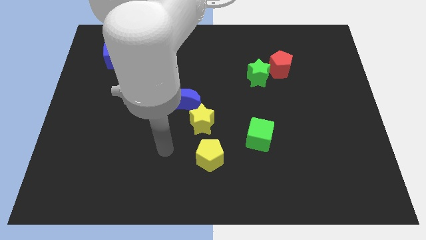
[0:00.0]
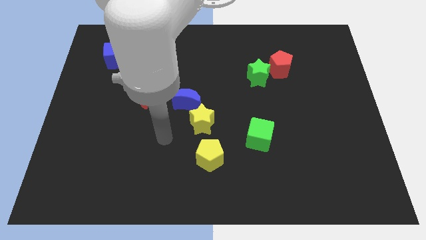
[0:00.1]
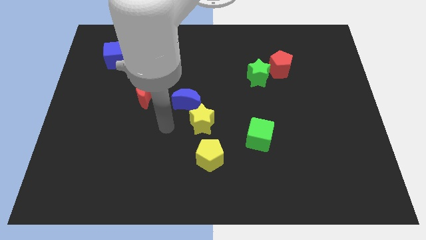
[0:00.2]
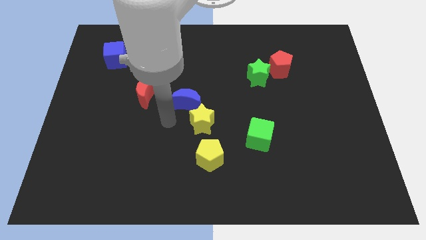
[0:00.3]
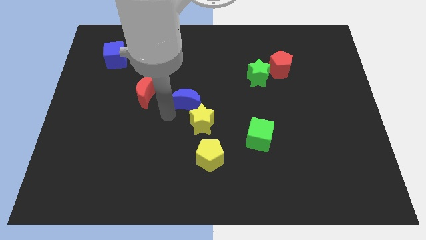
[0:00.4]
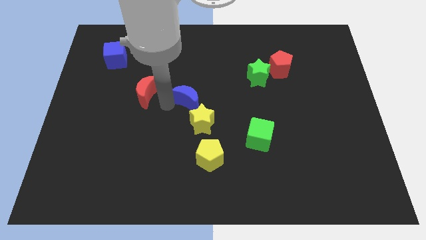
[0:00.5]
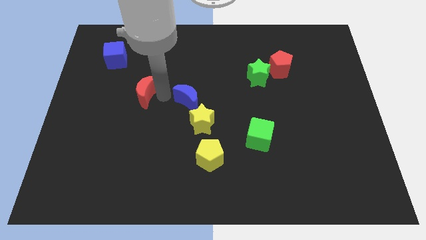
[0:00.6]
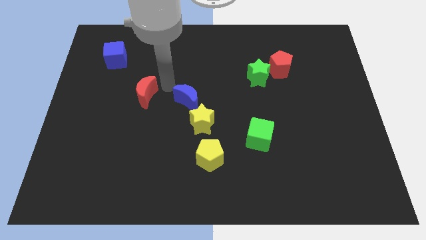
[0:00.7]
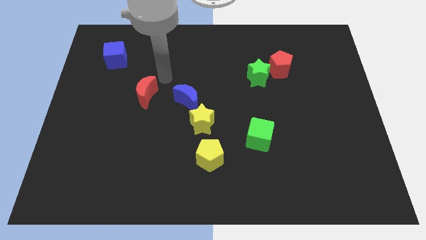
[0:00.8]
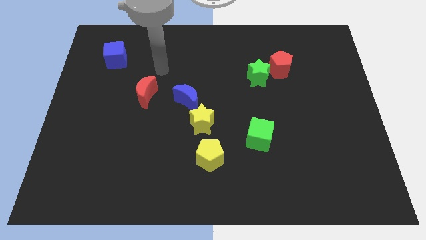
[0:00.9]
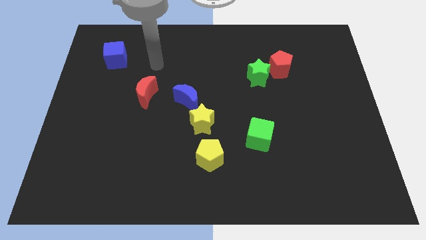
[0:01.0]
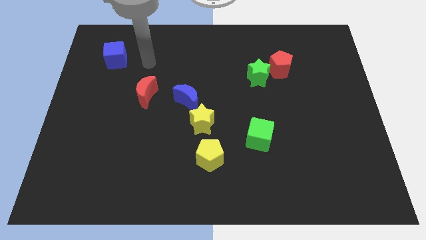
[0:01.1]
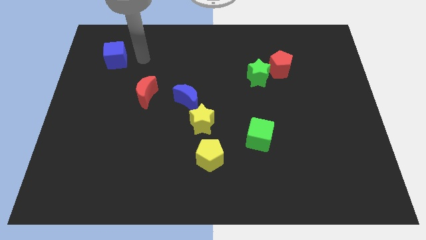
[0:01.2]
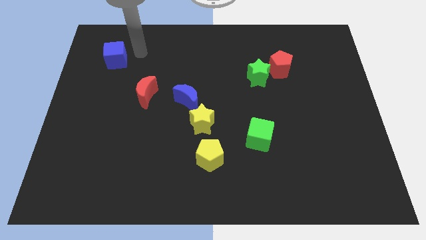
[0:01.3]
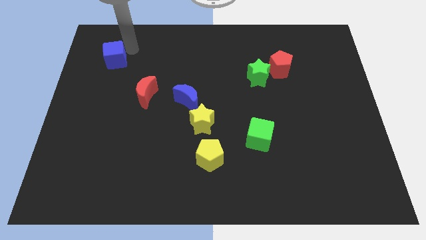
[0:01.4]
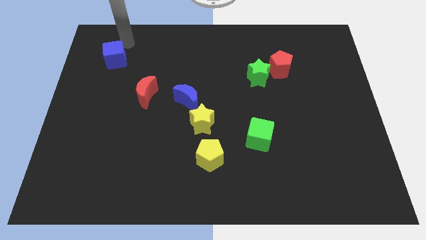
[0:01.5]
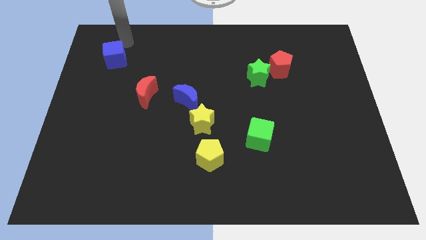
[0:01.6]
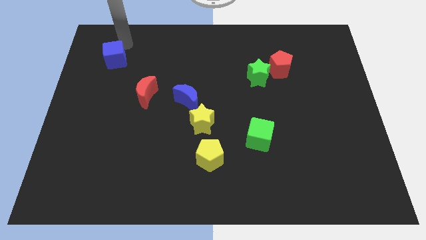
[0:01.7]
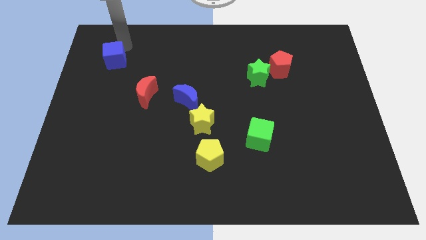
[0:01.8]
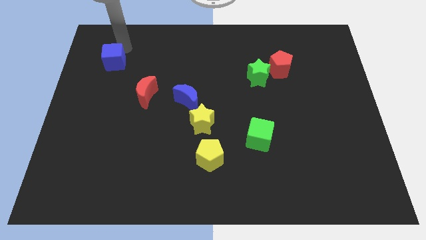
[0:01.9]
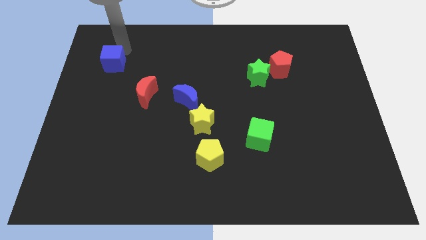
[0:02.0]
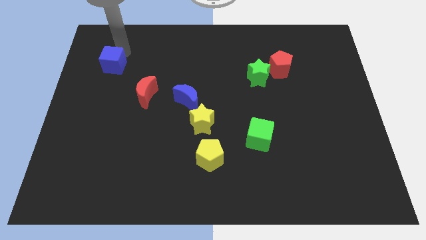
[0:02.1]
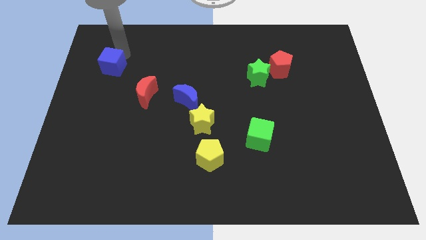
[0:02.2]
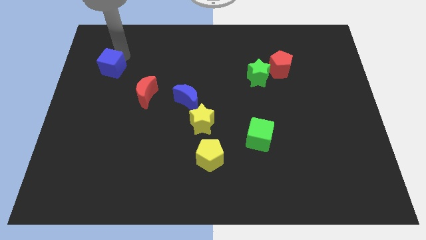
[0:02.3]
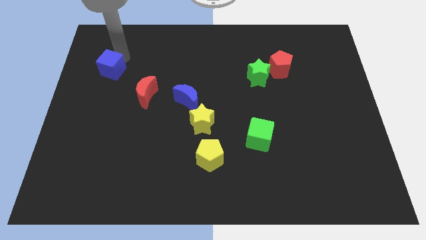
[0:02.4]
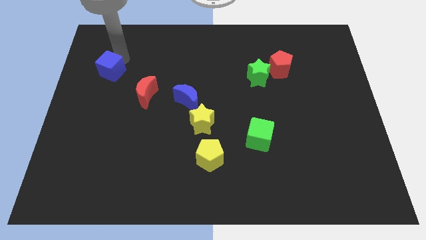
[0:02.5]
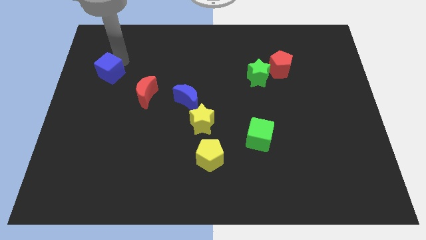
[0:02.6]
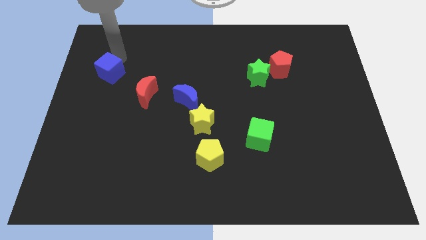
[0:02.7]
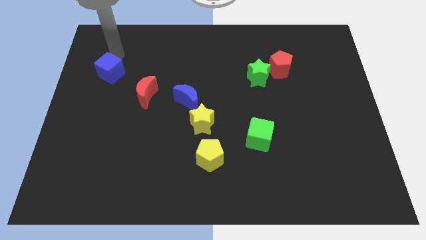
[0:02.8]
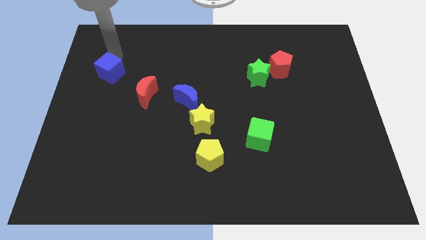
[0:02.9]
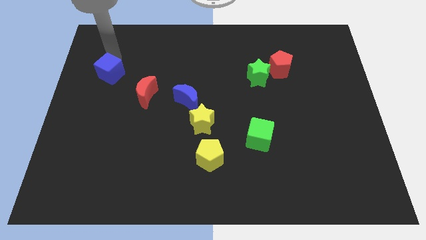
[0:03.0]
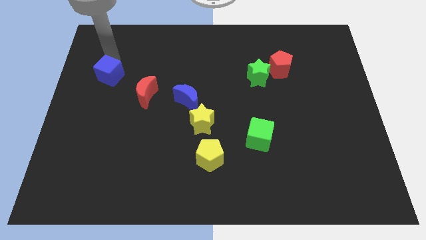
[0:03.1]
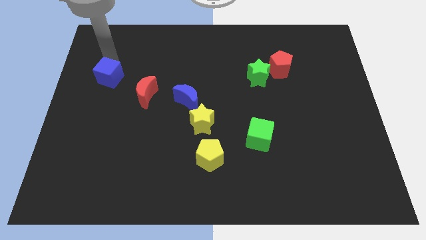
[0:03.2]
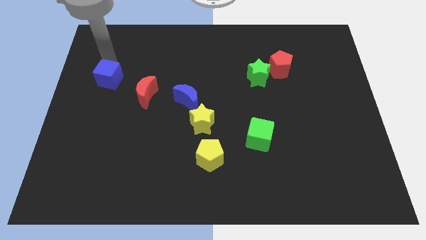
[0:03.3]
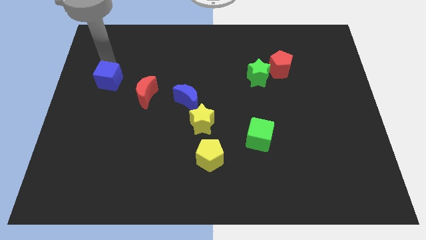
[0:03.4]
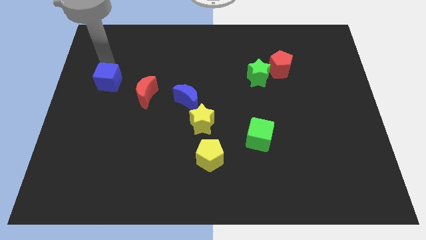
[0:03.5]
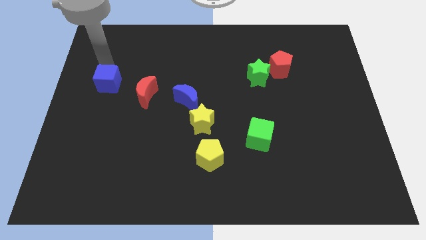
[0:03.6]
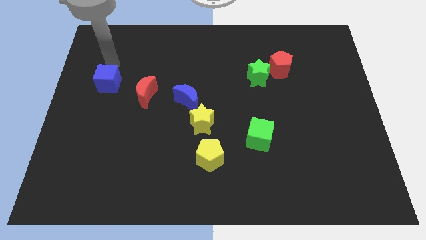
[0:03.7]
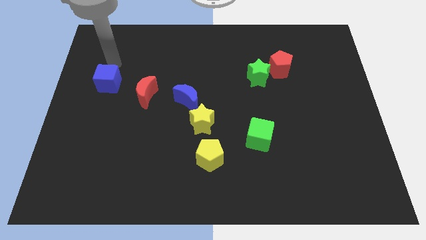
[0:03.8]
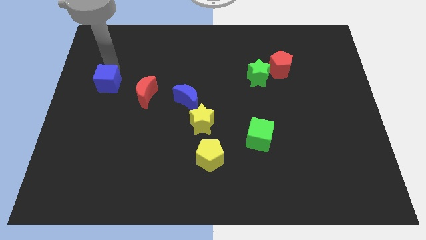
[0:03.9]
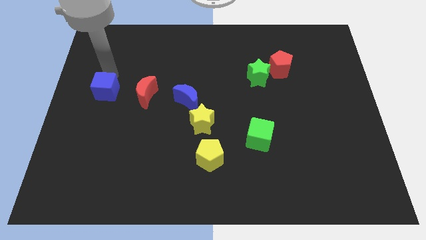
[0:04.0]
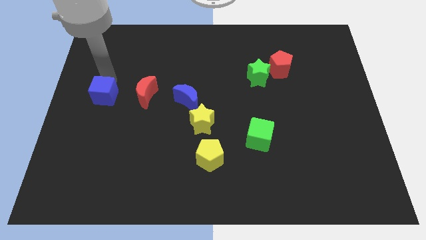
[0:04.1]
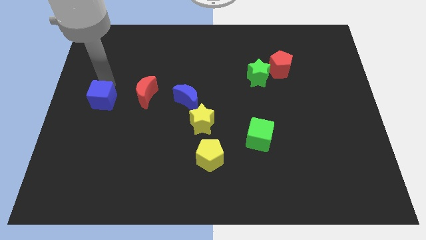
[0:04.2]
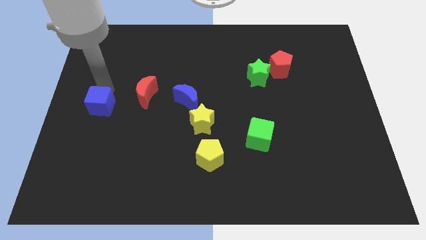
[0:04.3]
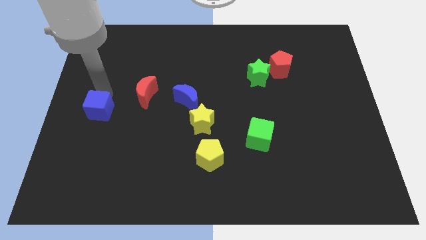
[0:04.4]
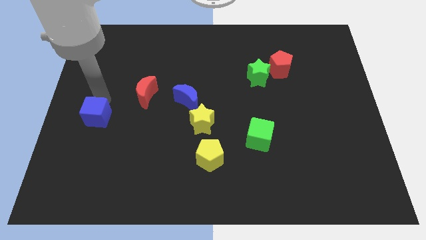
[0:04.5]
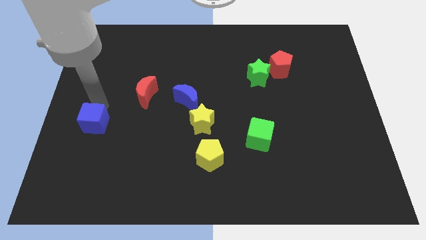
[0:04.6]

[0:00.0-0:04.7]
slide the blue cube downwards

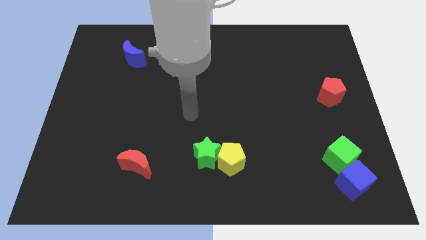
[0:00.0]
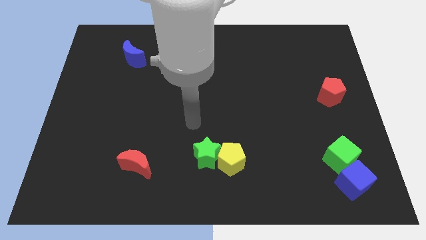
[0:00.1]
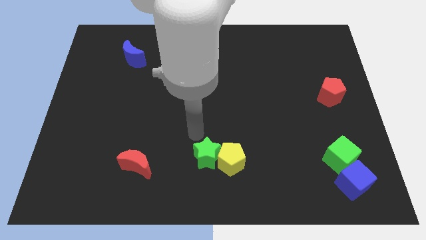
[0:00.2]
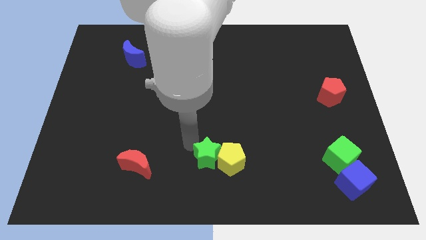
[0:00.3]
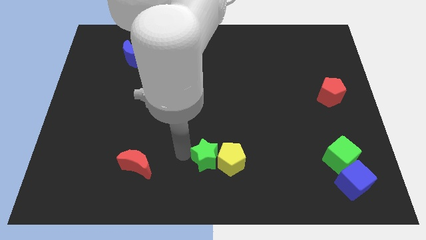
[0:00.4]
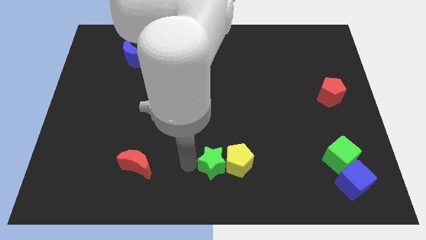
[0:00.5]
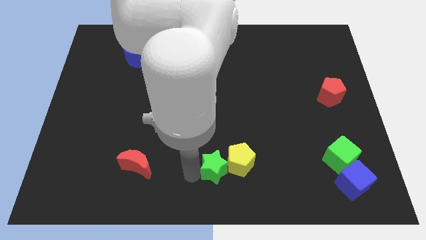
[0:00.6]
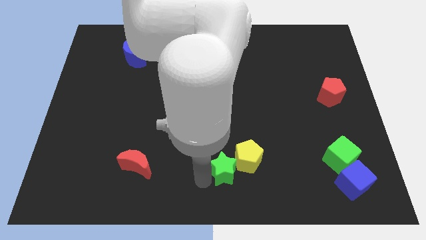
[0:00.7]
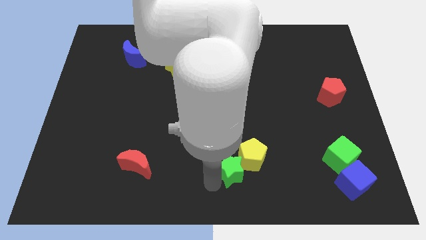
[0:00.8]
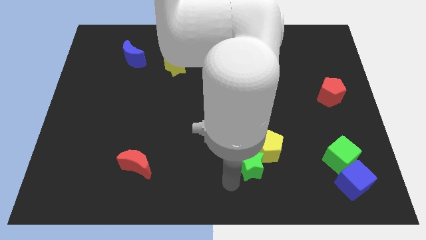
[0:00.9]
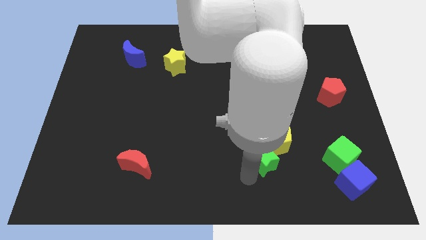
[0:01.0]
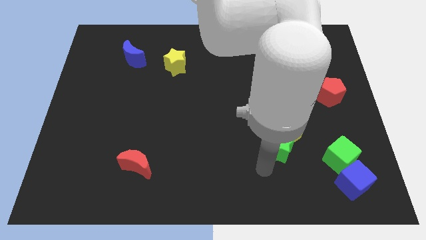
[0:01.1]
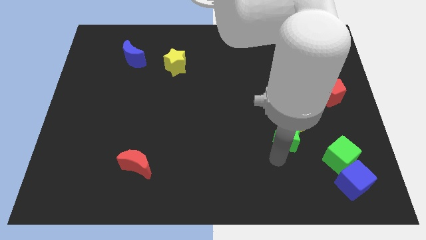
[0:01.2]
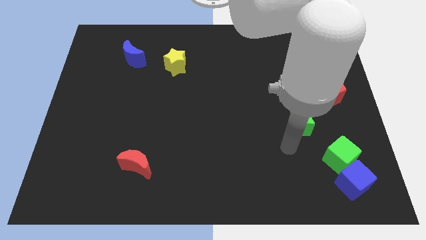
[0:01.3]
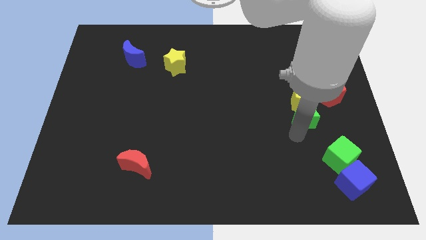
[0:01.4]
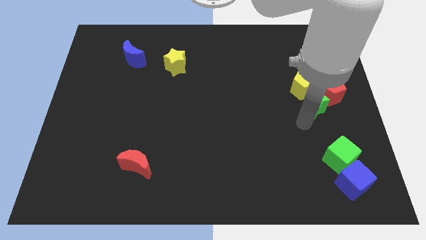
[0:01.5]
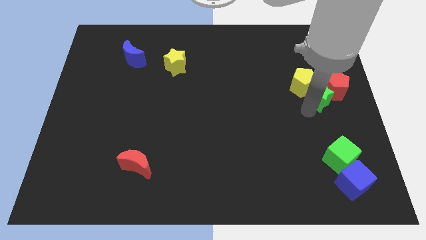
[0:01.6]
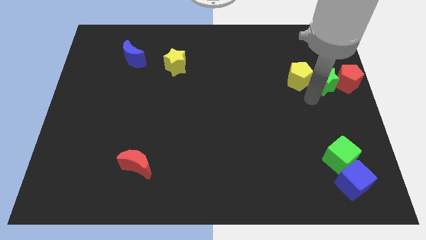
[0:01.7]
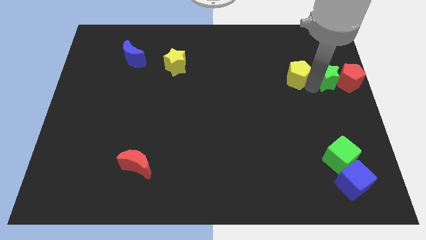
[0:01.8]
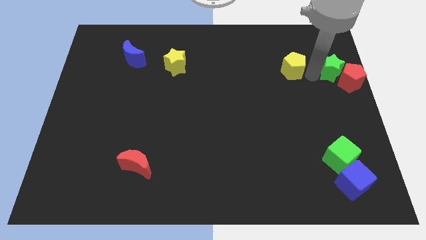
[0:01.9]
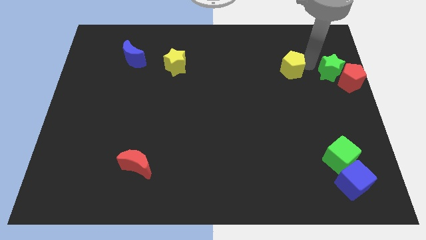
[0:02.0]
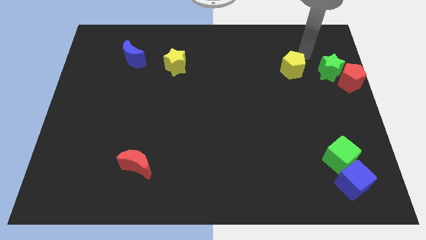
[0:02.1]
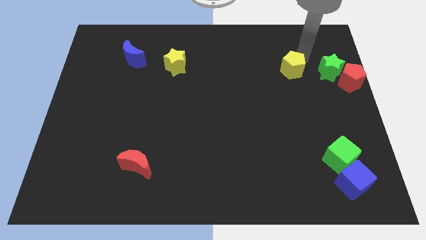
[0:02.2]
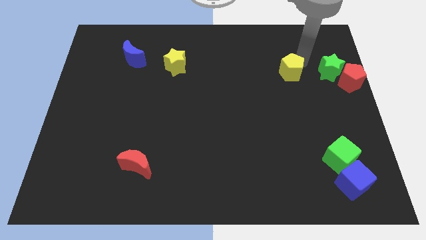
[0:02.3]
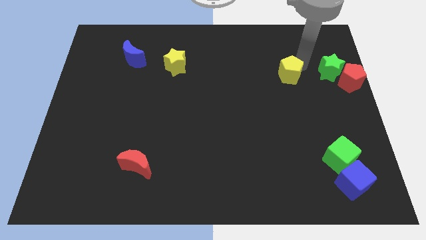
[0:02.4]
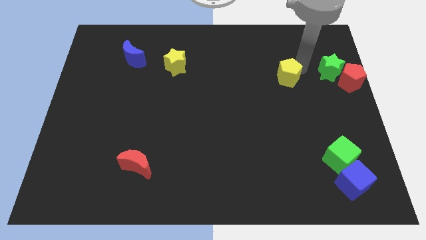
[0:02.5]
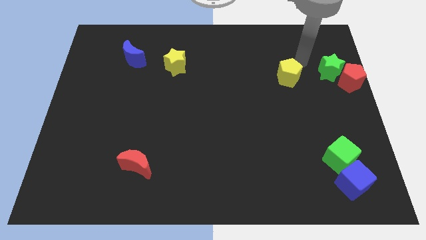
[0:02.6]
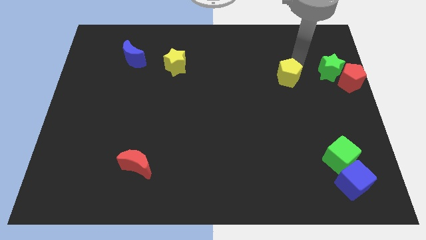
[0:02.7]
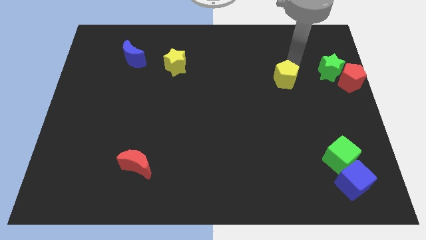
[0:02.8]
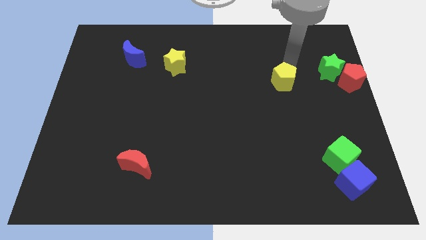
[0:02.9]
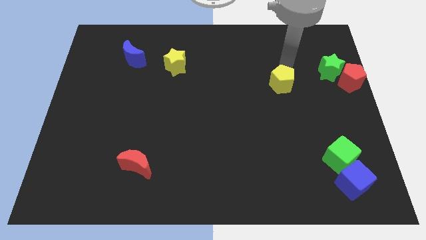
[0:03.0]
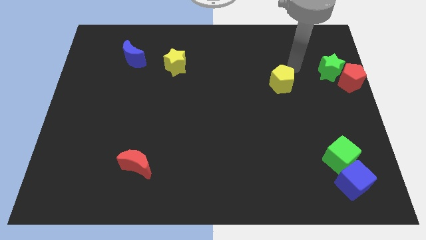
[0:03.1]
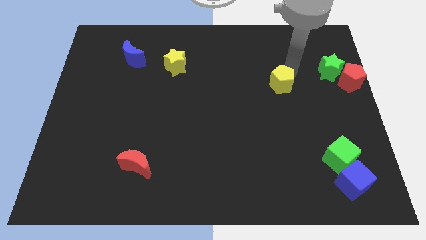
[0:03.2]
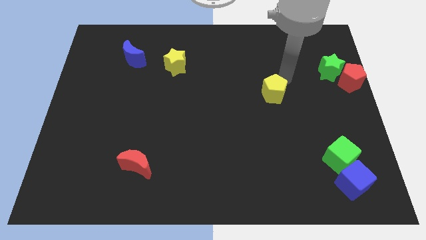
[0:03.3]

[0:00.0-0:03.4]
move the yellow pentagon up a bit

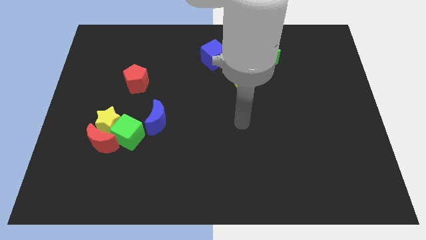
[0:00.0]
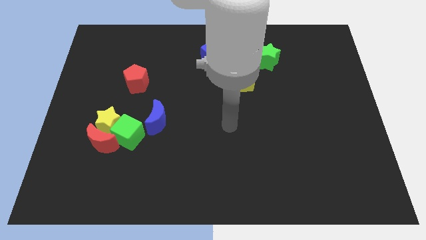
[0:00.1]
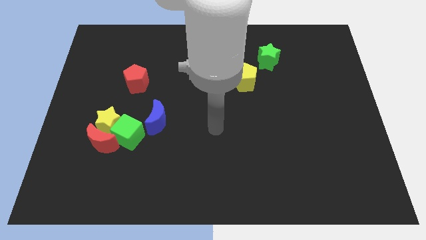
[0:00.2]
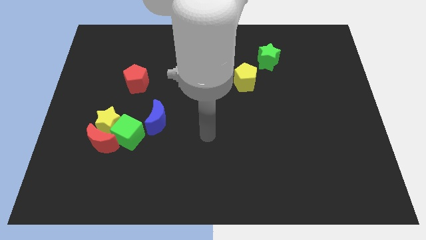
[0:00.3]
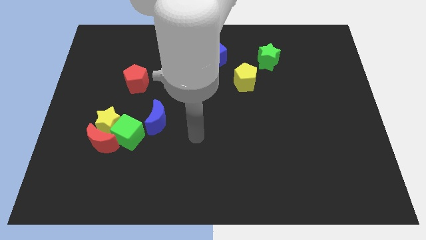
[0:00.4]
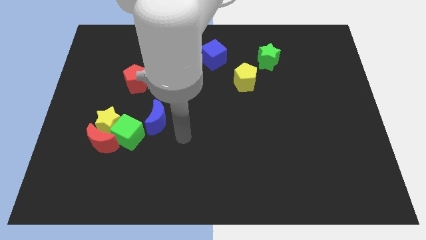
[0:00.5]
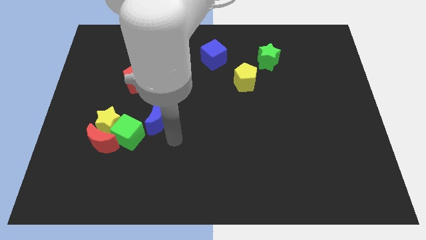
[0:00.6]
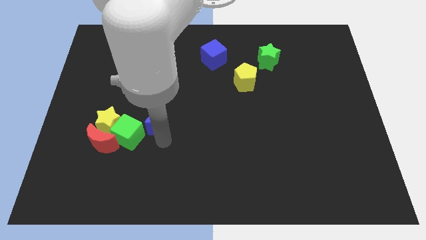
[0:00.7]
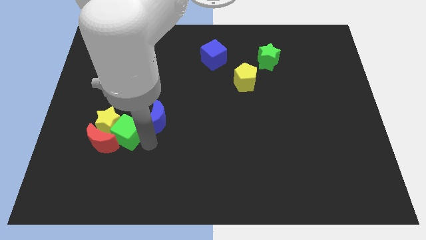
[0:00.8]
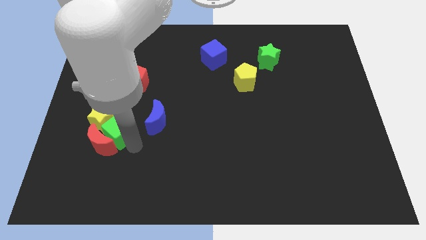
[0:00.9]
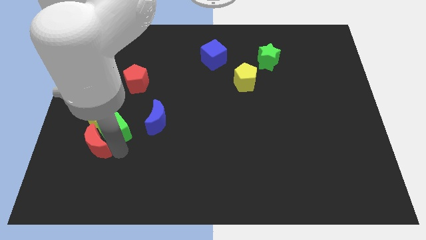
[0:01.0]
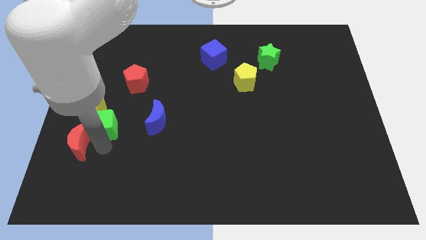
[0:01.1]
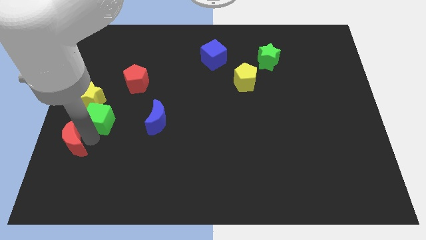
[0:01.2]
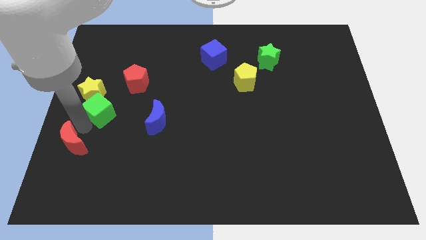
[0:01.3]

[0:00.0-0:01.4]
slightly slide the yellow star up
